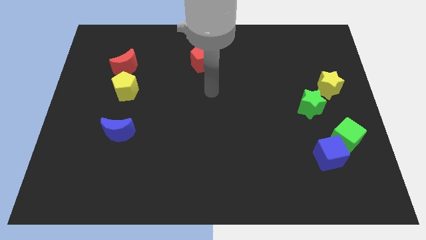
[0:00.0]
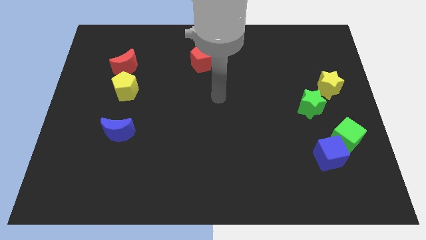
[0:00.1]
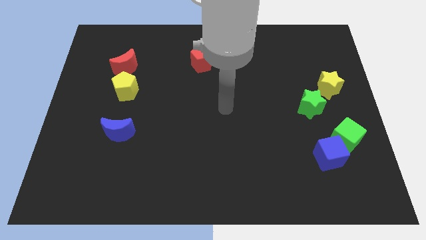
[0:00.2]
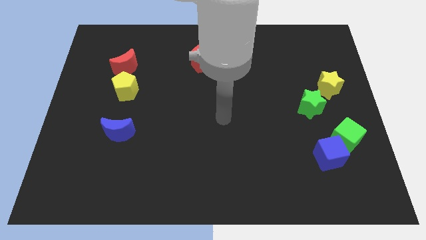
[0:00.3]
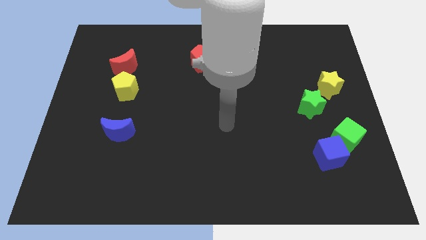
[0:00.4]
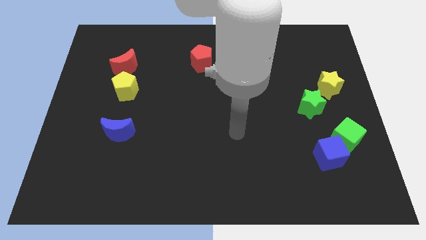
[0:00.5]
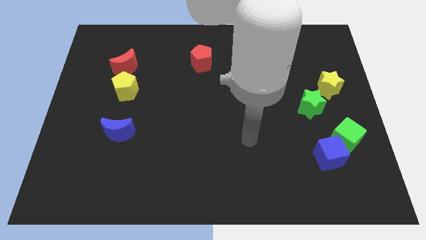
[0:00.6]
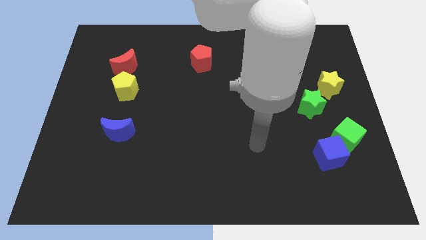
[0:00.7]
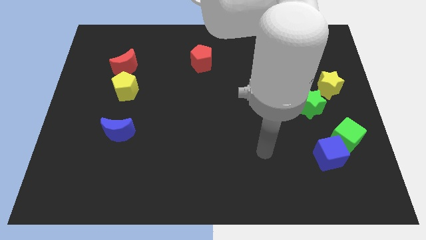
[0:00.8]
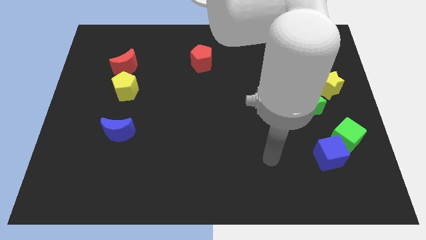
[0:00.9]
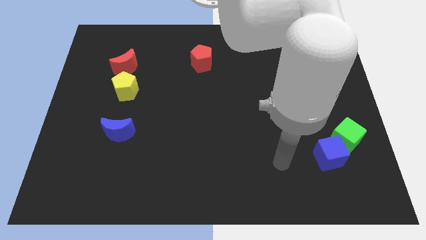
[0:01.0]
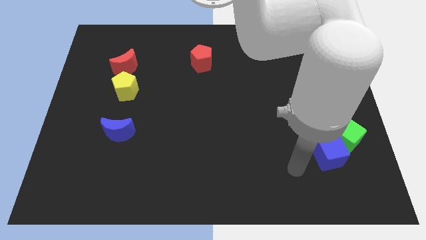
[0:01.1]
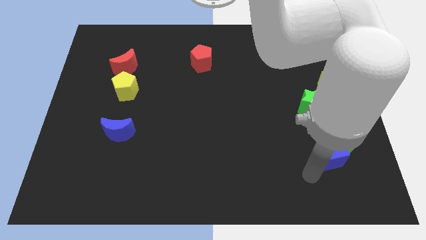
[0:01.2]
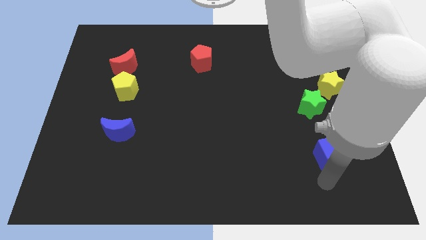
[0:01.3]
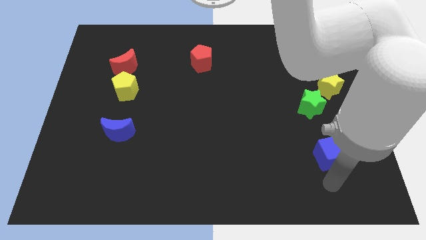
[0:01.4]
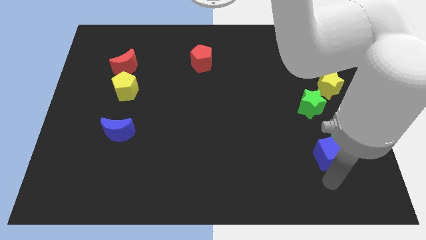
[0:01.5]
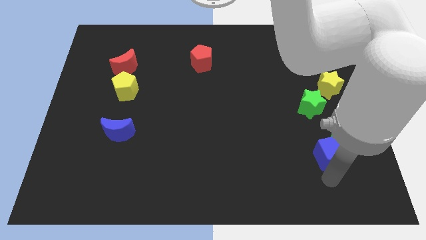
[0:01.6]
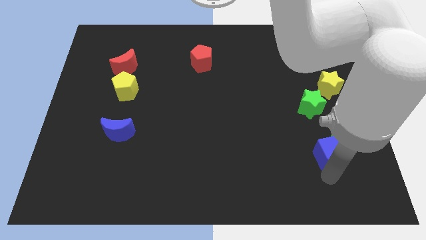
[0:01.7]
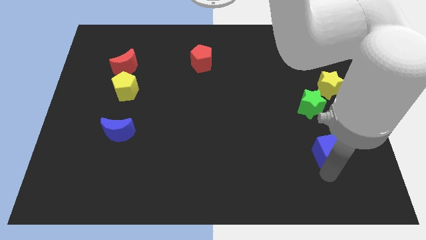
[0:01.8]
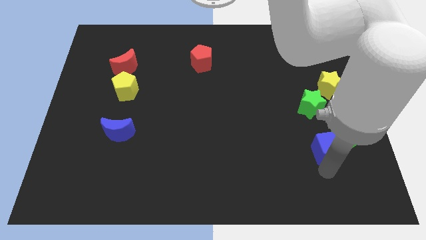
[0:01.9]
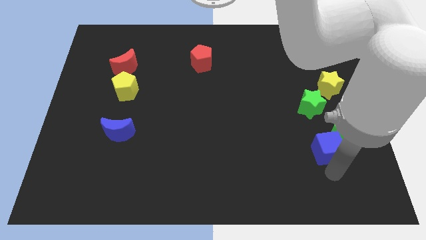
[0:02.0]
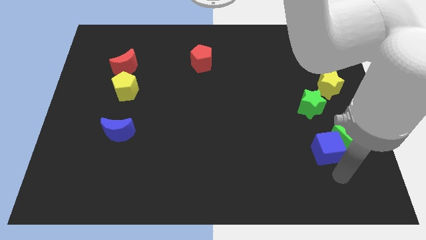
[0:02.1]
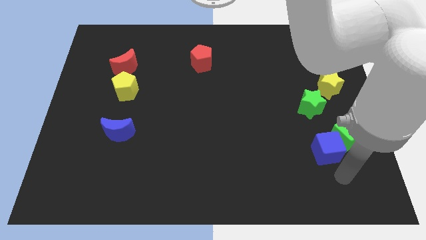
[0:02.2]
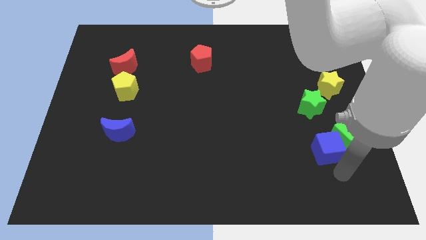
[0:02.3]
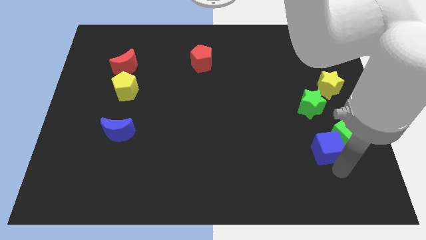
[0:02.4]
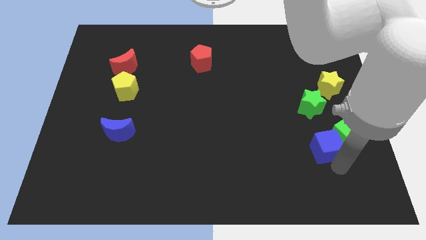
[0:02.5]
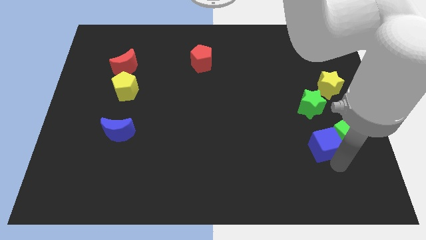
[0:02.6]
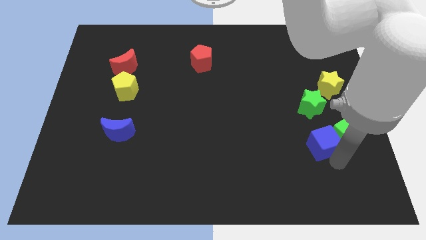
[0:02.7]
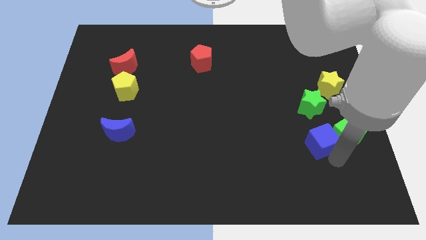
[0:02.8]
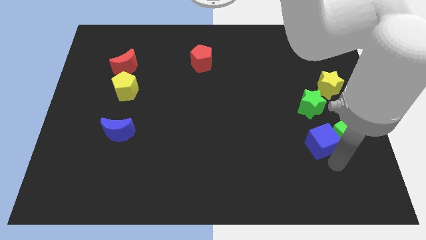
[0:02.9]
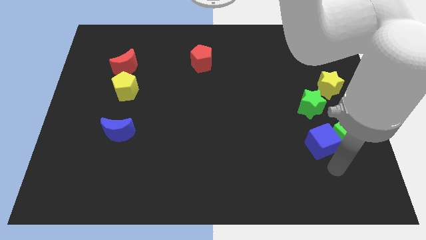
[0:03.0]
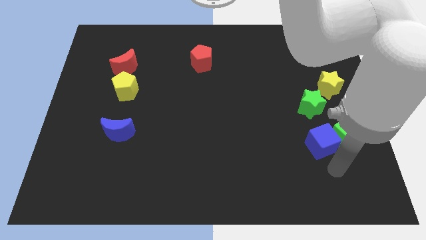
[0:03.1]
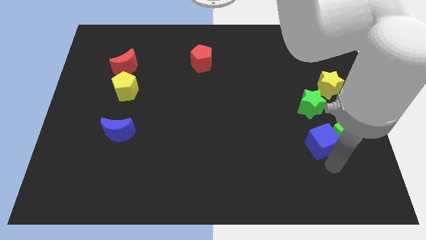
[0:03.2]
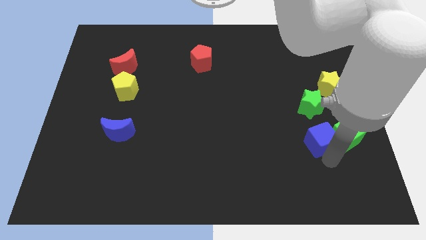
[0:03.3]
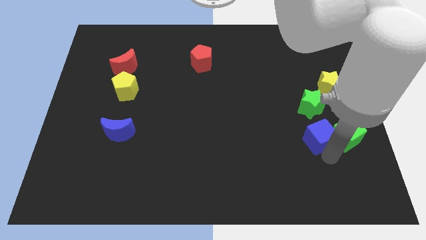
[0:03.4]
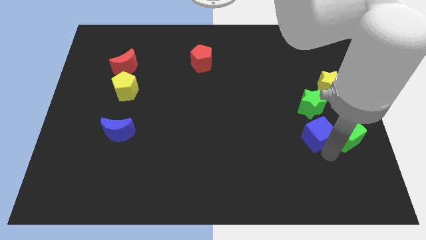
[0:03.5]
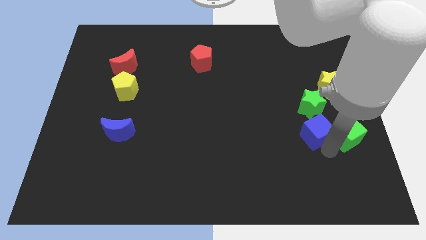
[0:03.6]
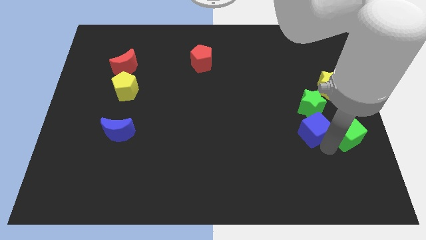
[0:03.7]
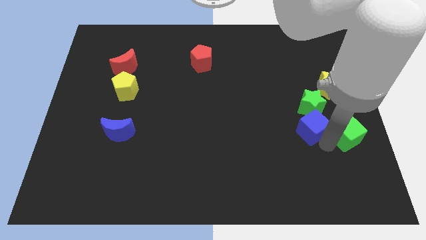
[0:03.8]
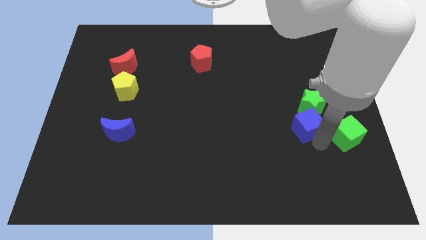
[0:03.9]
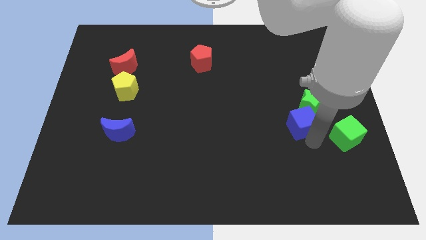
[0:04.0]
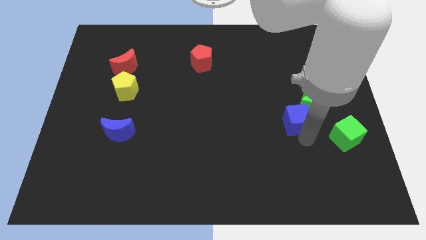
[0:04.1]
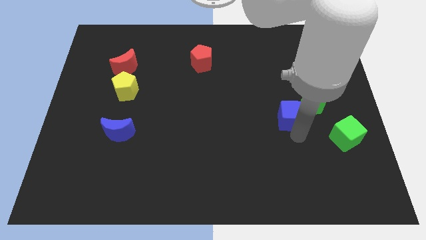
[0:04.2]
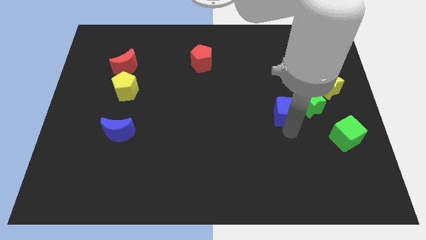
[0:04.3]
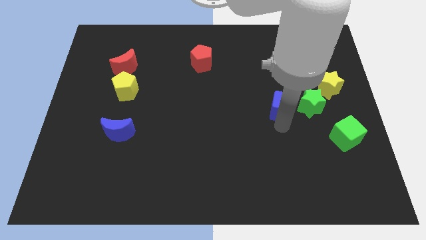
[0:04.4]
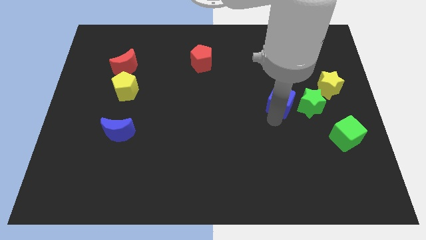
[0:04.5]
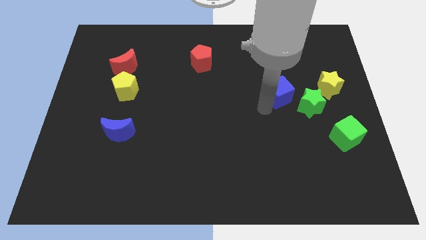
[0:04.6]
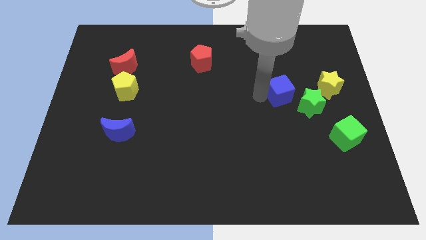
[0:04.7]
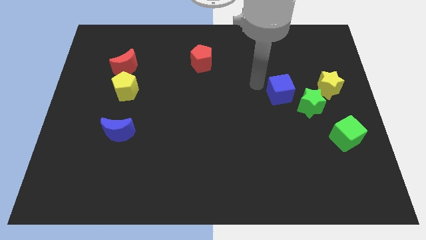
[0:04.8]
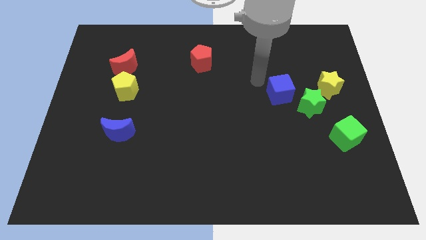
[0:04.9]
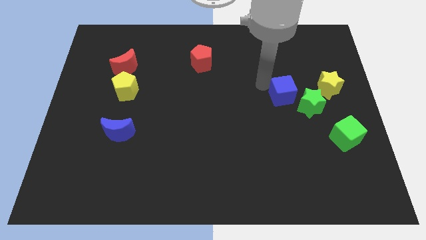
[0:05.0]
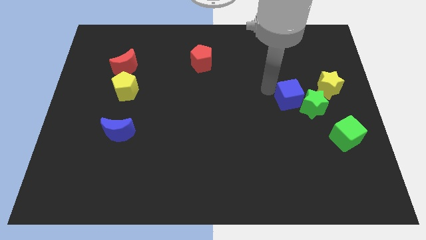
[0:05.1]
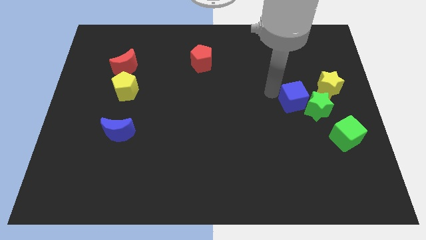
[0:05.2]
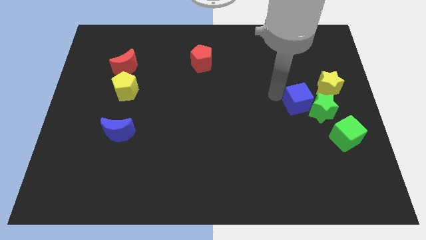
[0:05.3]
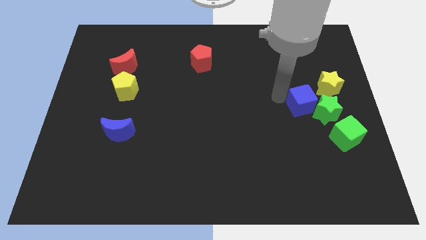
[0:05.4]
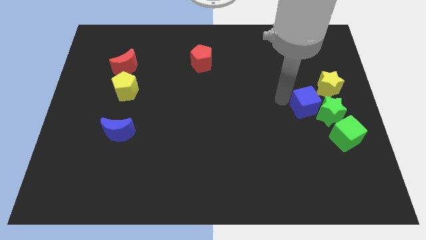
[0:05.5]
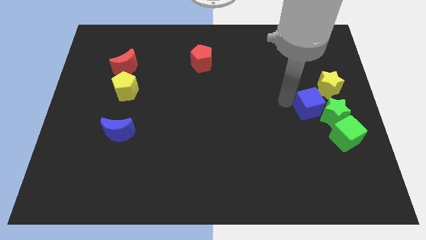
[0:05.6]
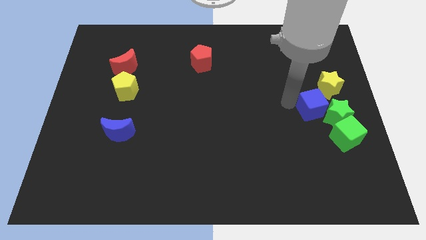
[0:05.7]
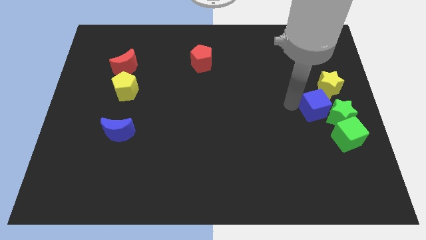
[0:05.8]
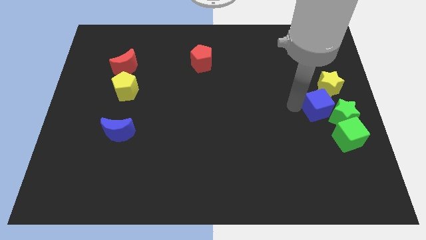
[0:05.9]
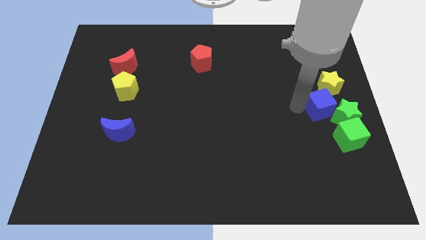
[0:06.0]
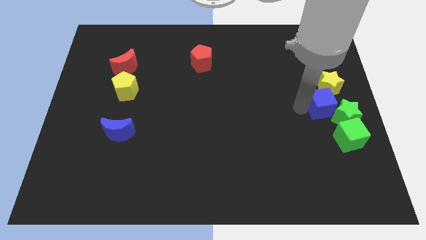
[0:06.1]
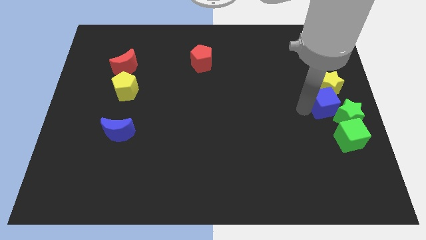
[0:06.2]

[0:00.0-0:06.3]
move the blue cube to the yellow star

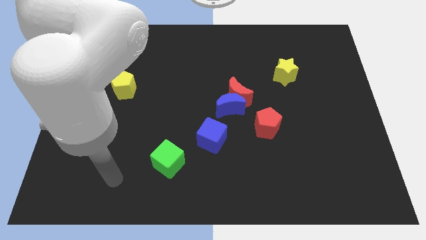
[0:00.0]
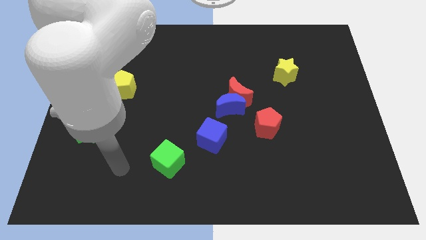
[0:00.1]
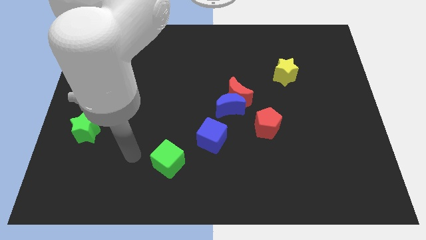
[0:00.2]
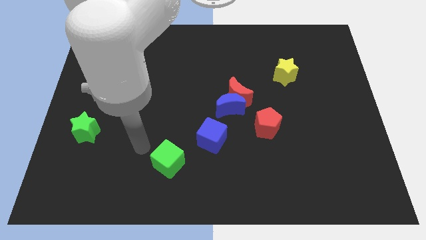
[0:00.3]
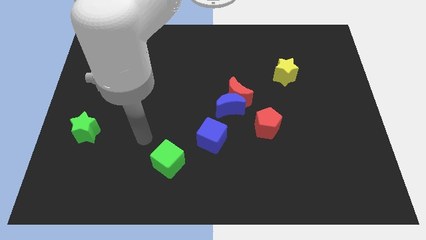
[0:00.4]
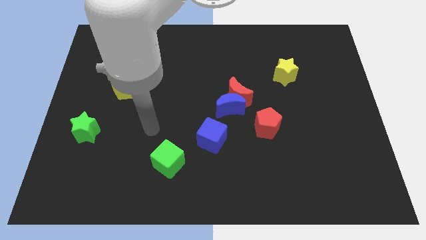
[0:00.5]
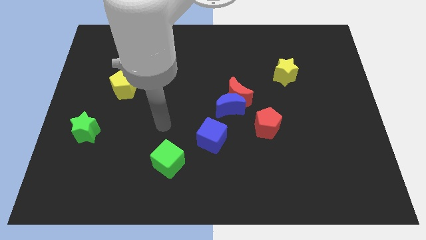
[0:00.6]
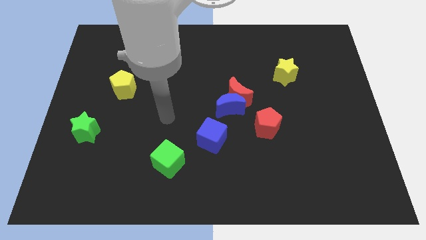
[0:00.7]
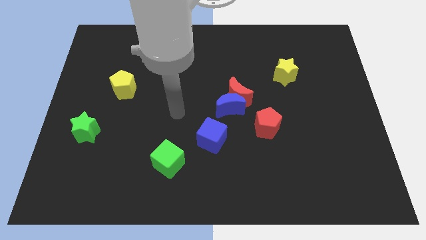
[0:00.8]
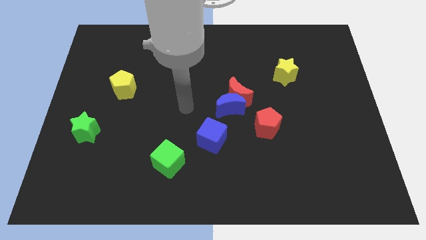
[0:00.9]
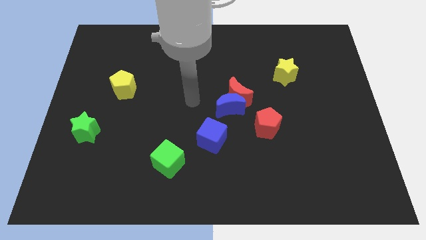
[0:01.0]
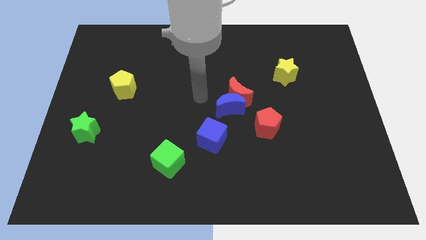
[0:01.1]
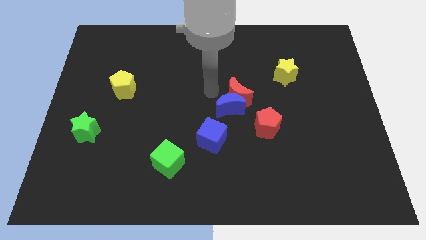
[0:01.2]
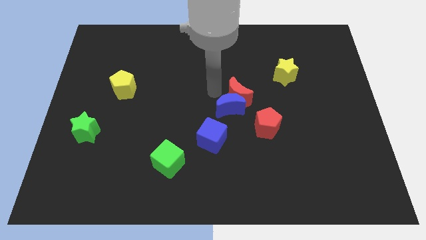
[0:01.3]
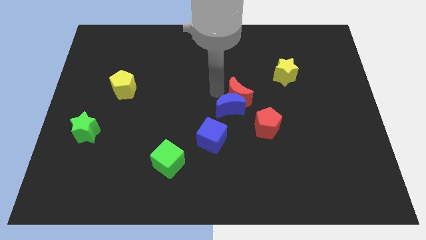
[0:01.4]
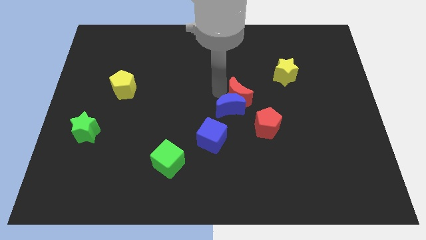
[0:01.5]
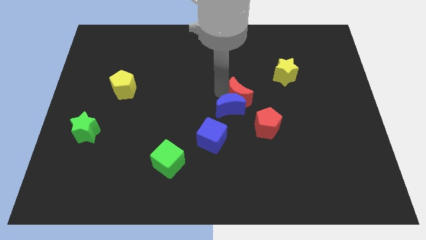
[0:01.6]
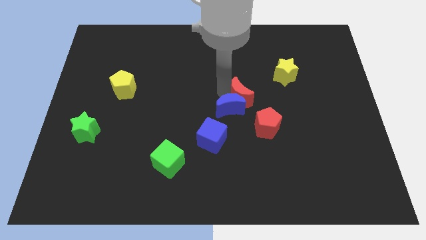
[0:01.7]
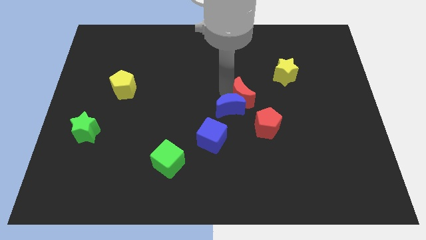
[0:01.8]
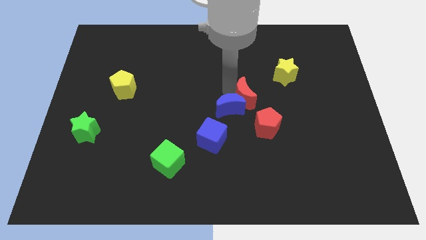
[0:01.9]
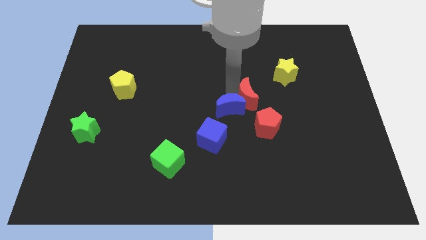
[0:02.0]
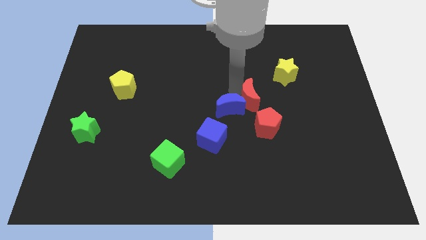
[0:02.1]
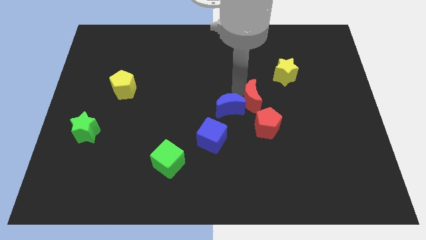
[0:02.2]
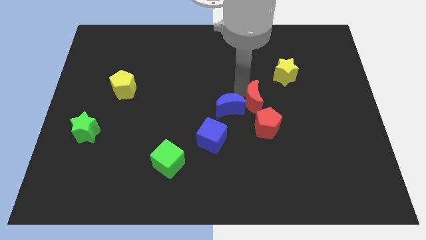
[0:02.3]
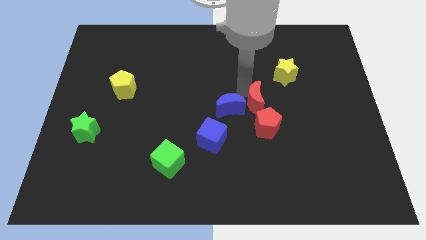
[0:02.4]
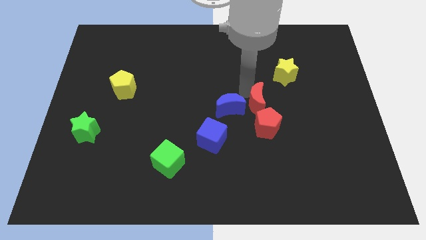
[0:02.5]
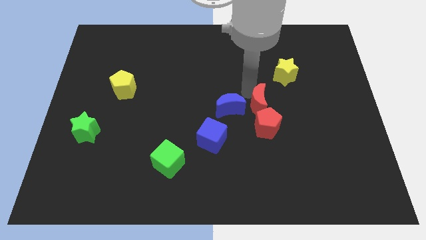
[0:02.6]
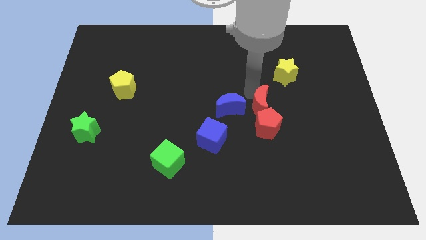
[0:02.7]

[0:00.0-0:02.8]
put the red moon next to the red pentagon
